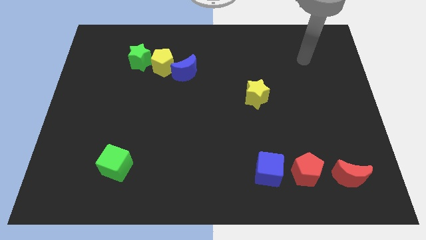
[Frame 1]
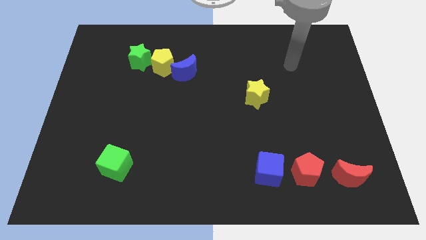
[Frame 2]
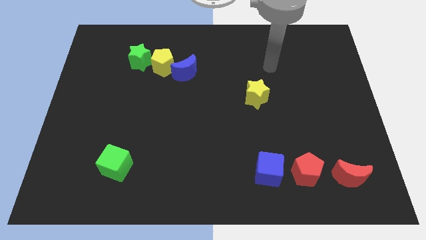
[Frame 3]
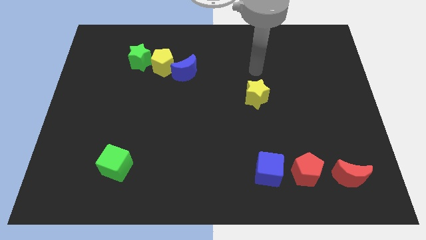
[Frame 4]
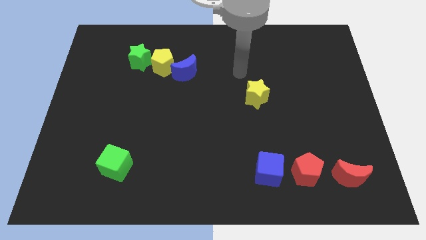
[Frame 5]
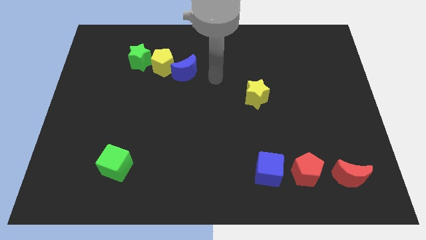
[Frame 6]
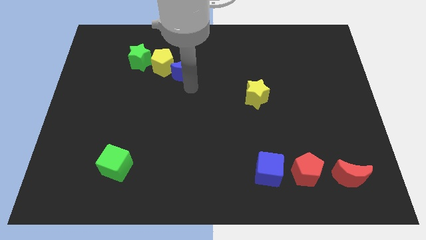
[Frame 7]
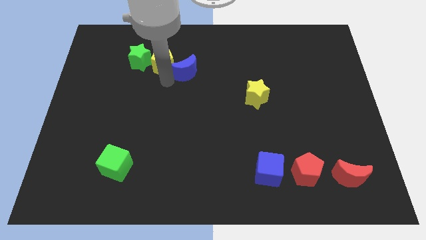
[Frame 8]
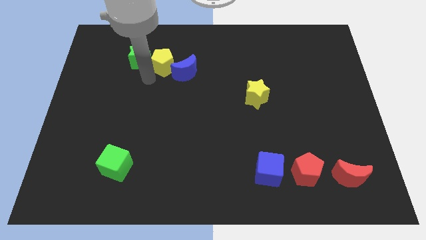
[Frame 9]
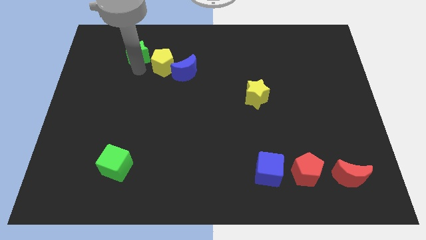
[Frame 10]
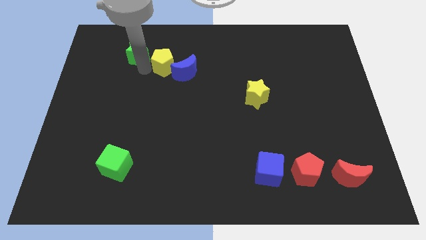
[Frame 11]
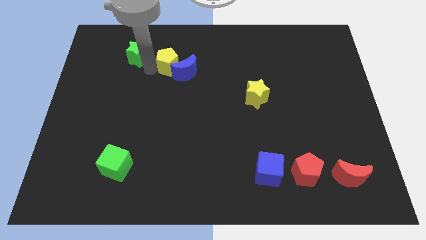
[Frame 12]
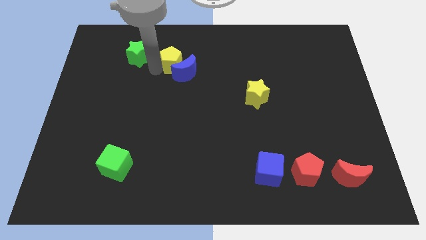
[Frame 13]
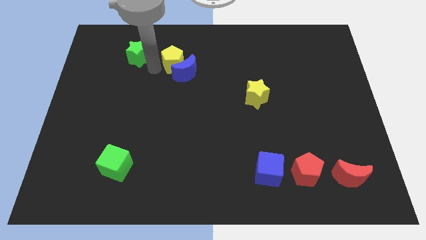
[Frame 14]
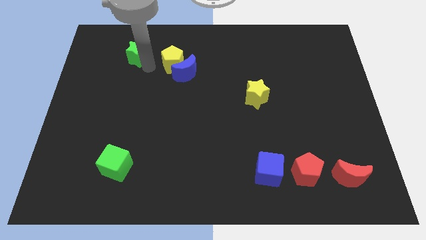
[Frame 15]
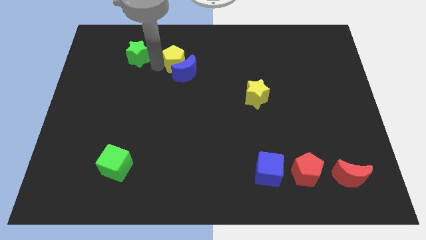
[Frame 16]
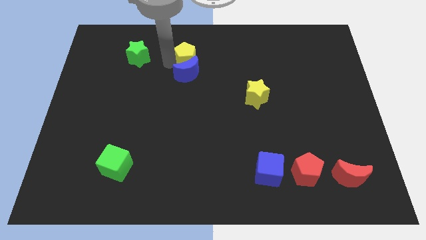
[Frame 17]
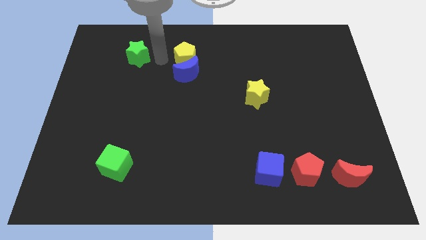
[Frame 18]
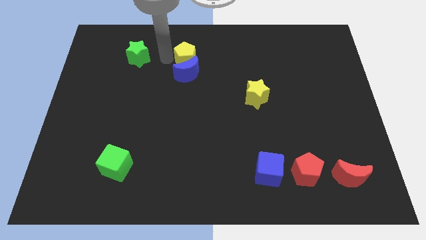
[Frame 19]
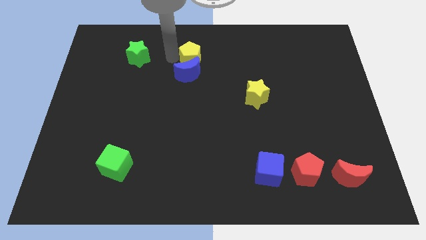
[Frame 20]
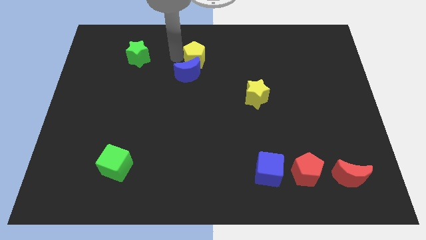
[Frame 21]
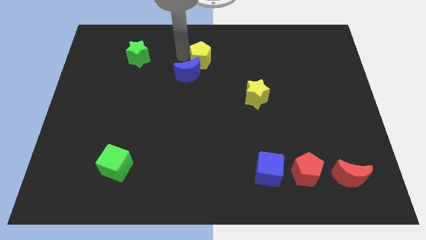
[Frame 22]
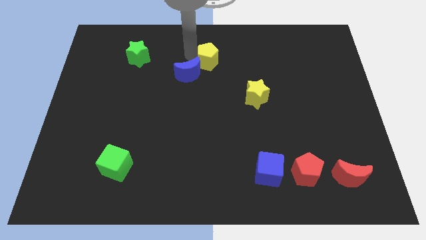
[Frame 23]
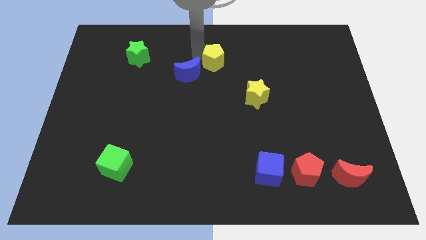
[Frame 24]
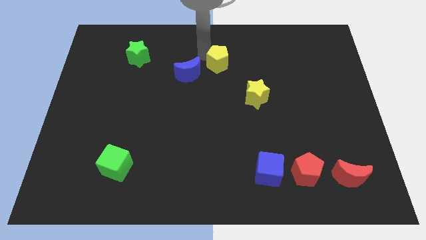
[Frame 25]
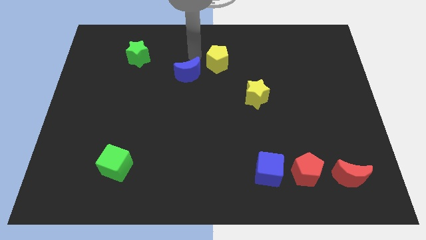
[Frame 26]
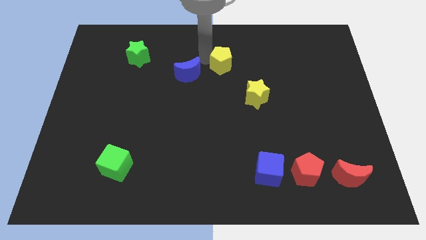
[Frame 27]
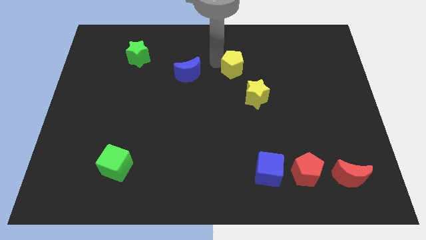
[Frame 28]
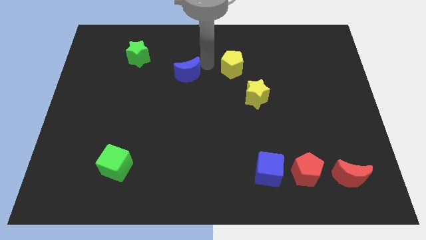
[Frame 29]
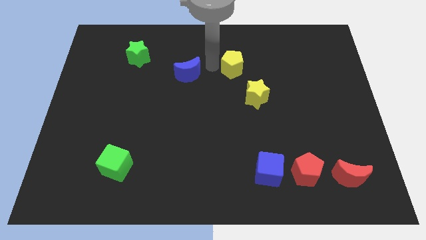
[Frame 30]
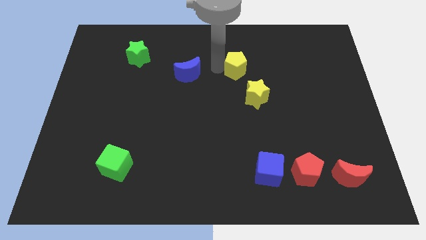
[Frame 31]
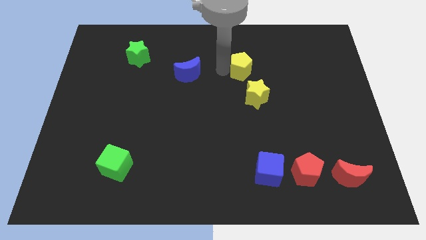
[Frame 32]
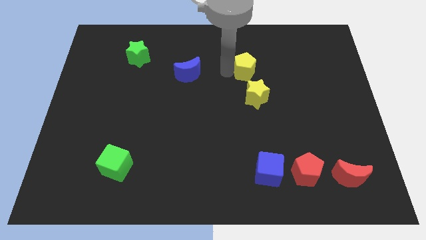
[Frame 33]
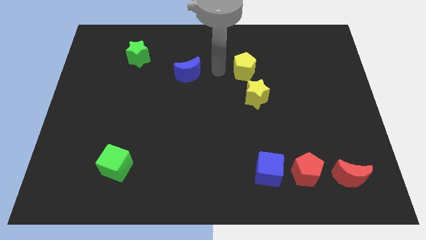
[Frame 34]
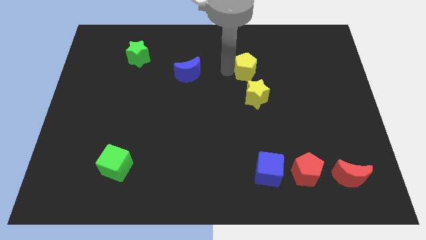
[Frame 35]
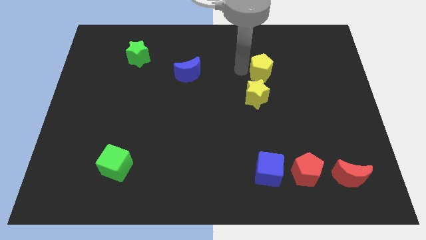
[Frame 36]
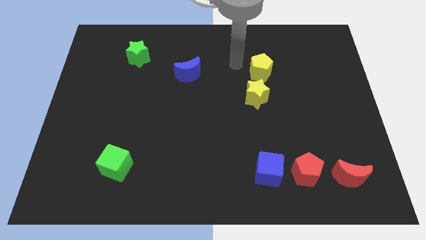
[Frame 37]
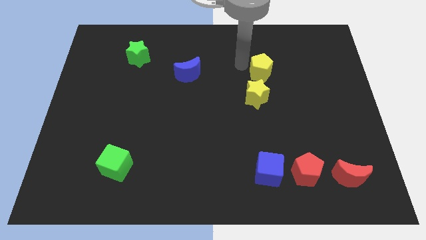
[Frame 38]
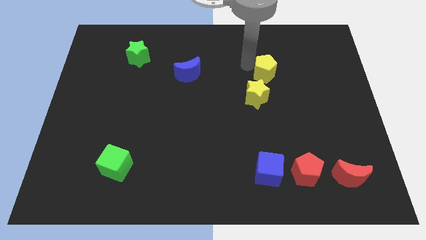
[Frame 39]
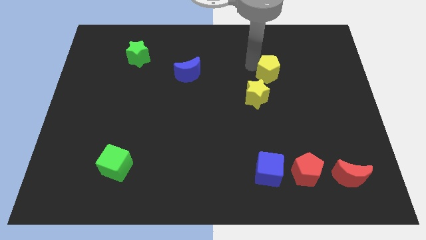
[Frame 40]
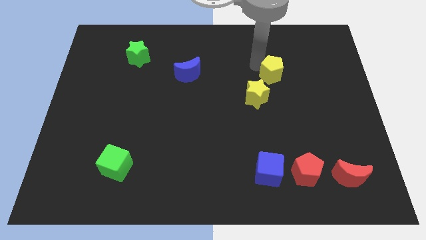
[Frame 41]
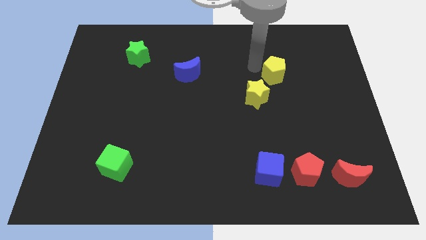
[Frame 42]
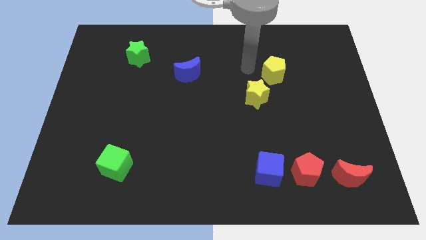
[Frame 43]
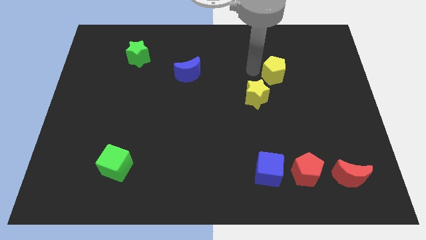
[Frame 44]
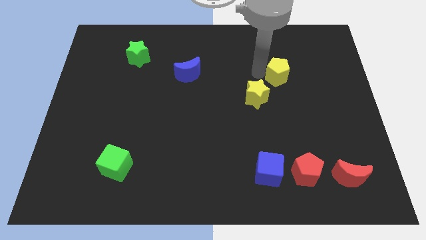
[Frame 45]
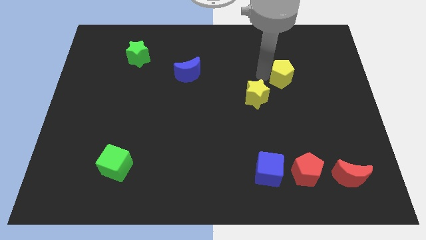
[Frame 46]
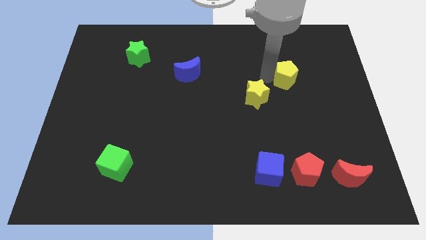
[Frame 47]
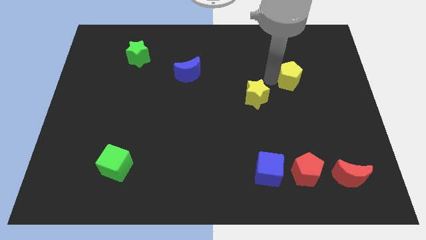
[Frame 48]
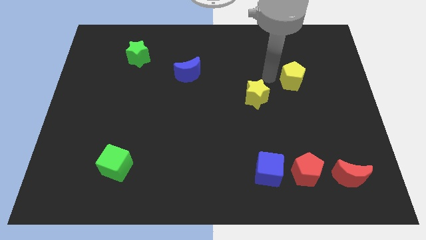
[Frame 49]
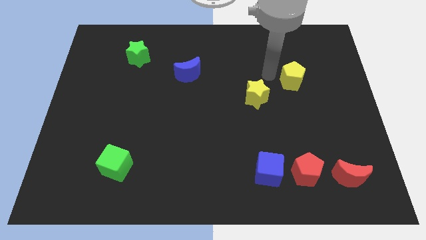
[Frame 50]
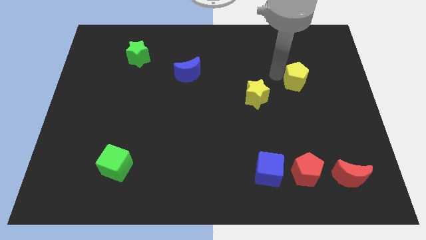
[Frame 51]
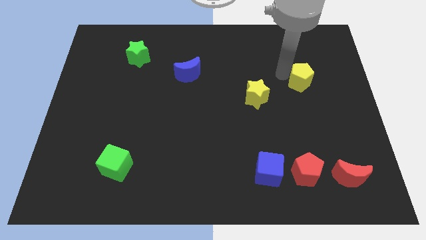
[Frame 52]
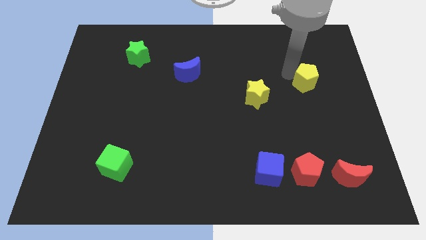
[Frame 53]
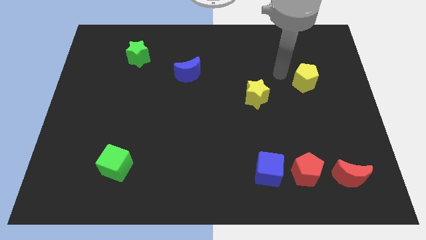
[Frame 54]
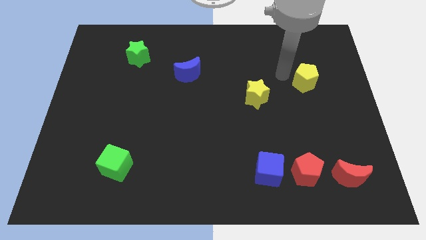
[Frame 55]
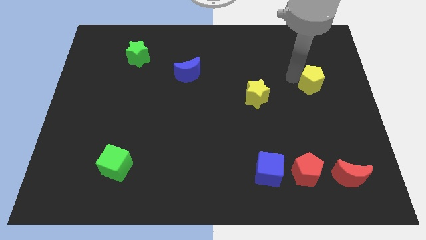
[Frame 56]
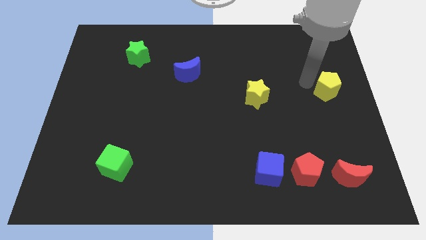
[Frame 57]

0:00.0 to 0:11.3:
put the yellow pentagon to the right side of the board

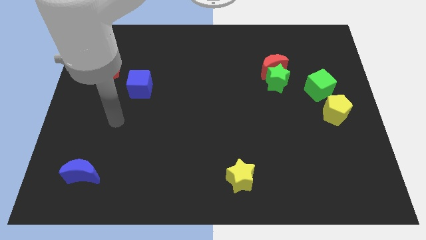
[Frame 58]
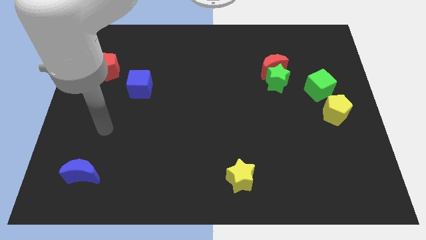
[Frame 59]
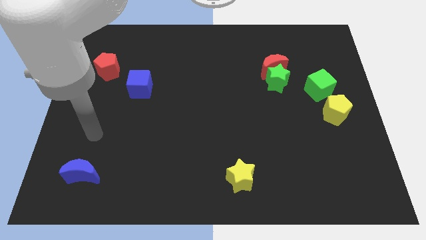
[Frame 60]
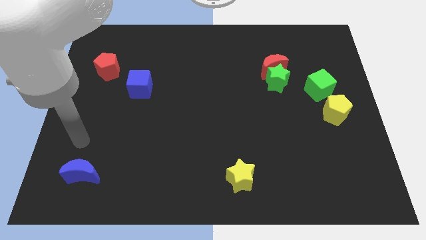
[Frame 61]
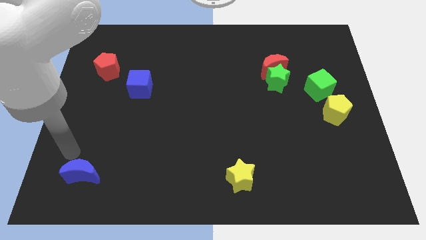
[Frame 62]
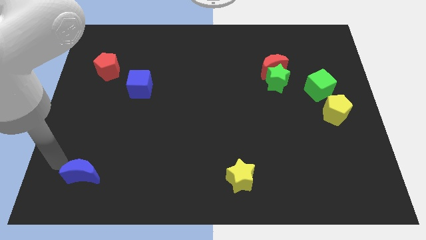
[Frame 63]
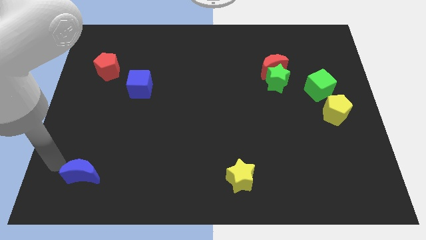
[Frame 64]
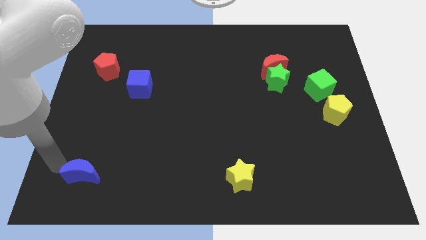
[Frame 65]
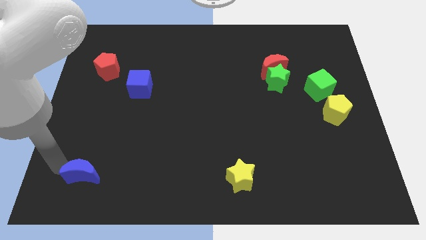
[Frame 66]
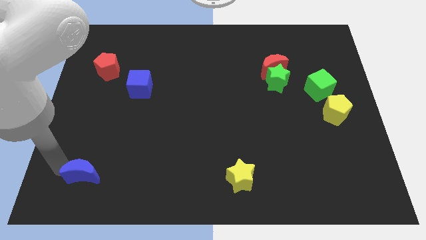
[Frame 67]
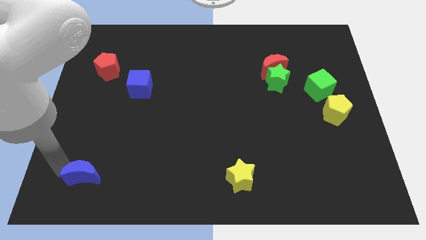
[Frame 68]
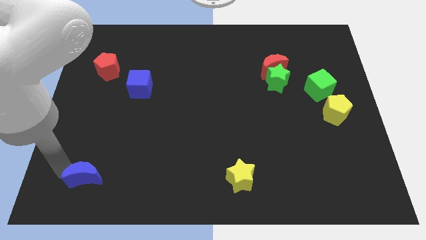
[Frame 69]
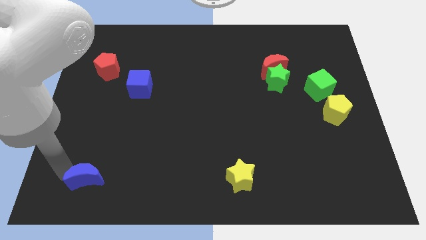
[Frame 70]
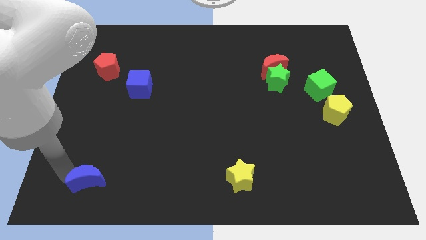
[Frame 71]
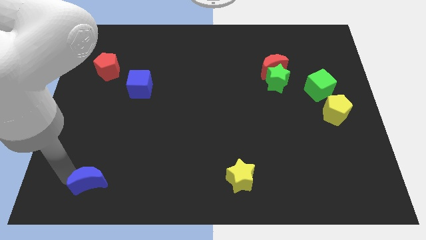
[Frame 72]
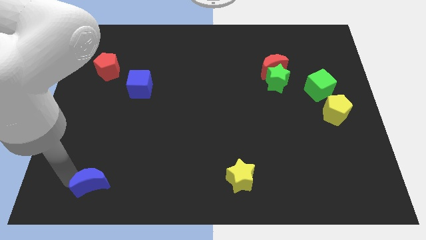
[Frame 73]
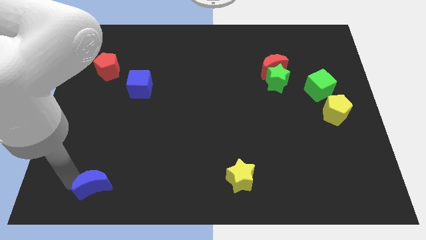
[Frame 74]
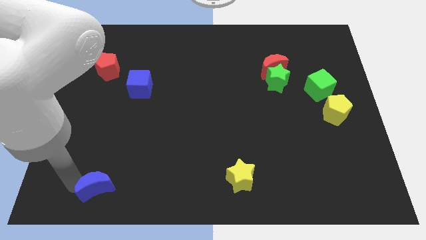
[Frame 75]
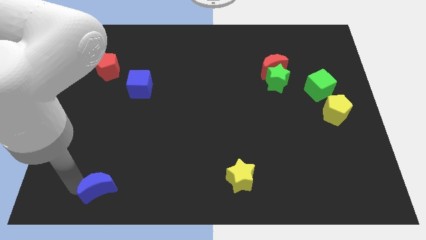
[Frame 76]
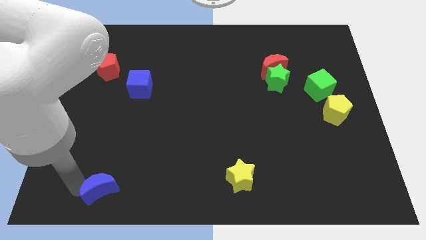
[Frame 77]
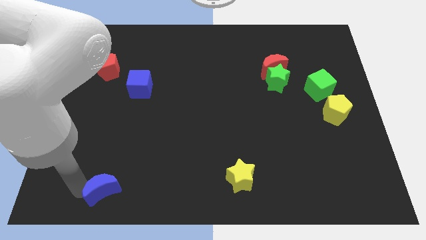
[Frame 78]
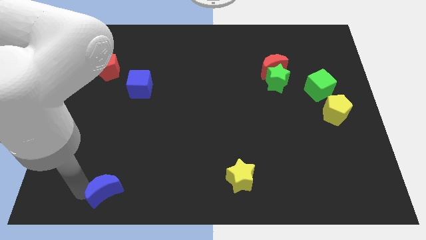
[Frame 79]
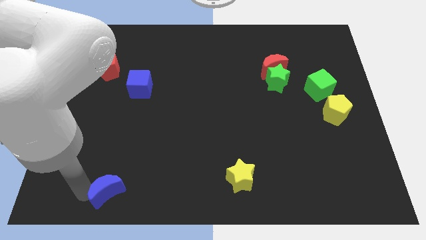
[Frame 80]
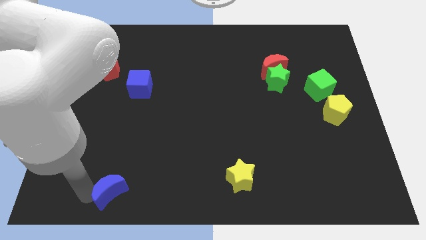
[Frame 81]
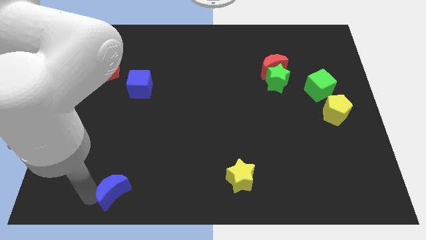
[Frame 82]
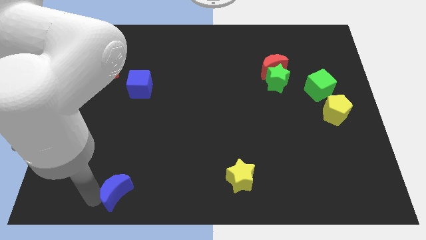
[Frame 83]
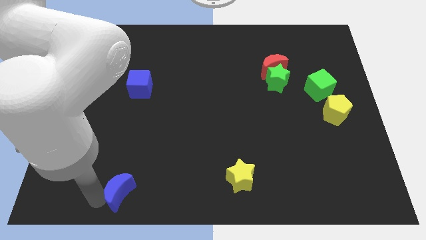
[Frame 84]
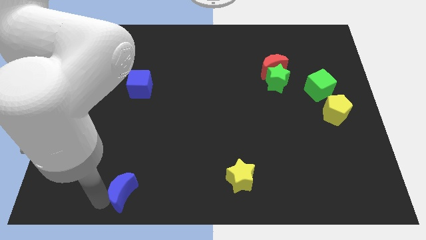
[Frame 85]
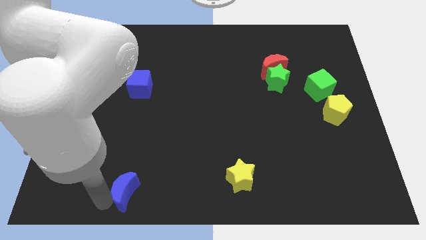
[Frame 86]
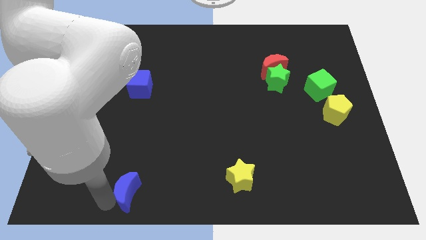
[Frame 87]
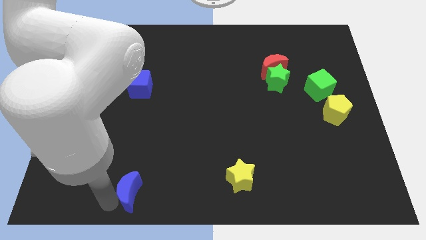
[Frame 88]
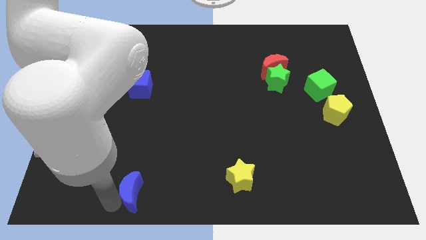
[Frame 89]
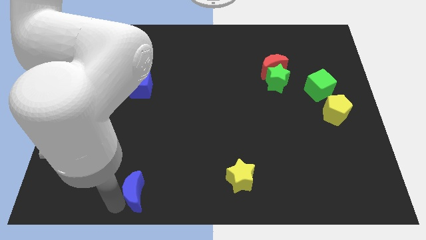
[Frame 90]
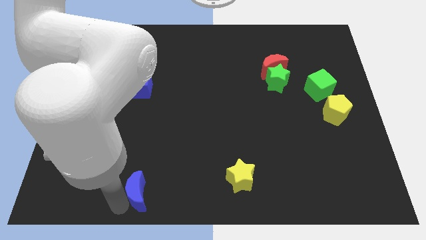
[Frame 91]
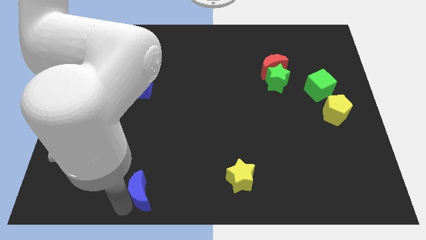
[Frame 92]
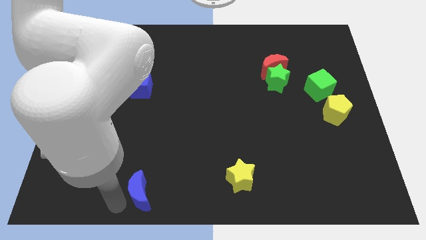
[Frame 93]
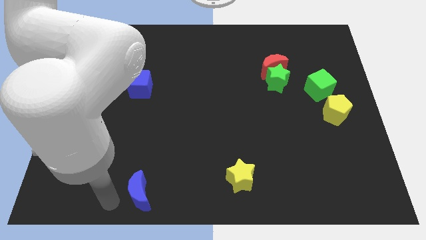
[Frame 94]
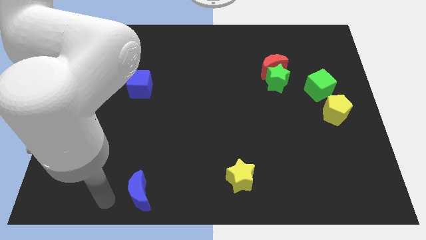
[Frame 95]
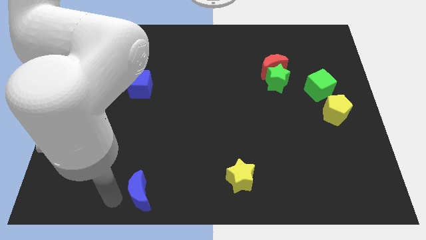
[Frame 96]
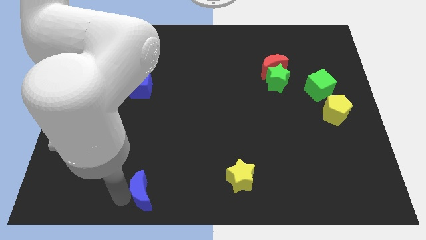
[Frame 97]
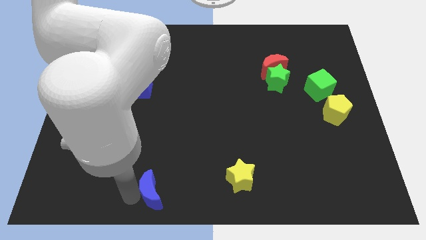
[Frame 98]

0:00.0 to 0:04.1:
put the blue moon to the bottom side
